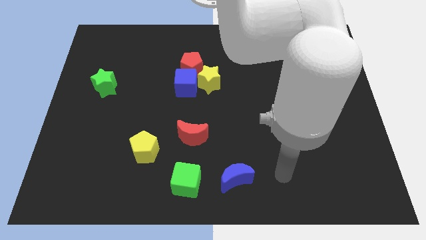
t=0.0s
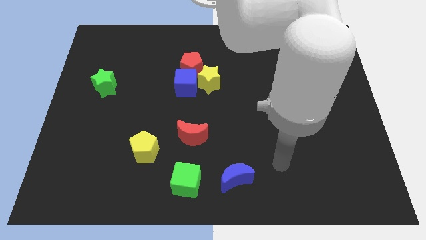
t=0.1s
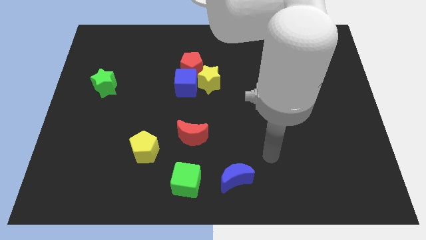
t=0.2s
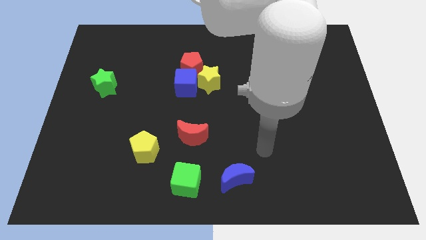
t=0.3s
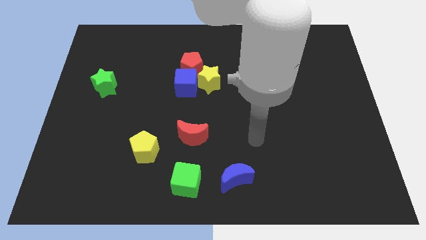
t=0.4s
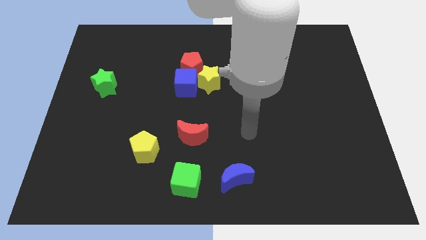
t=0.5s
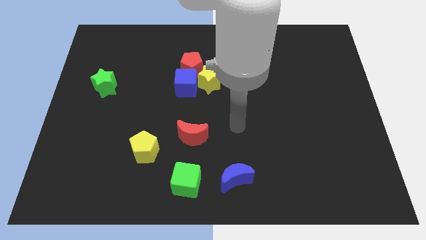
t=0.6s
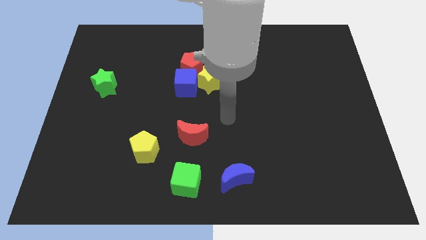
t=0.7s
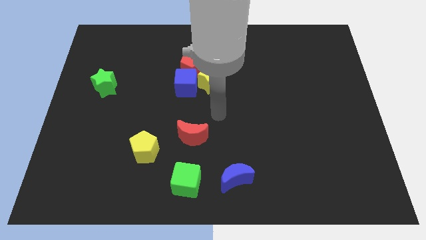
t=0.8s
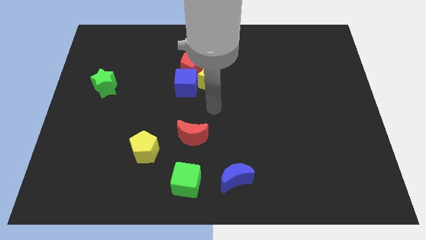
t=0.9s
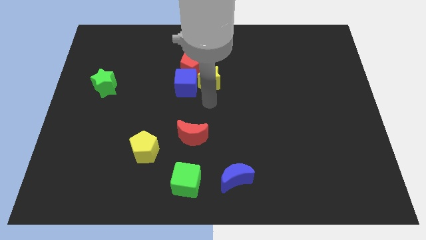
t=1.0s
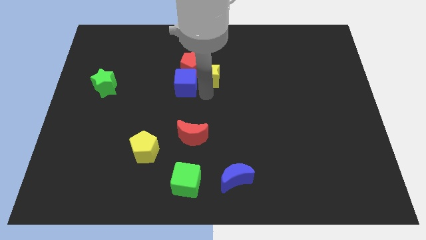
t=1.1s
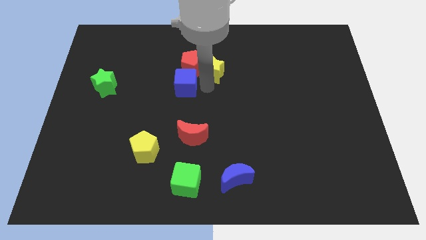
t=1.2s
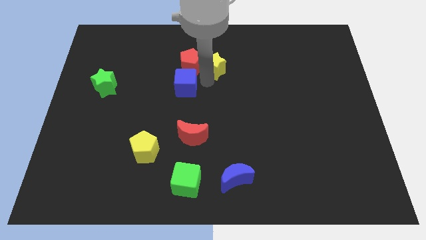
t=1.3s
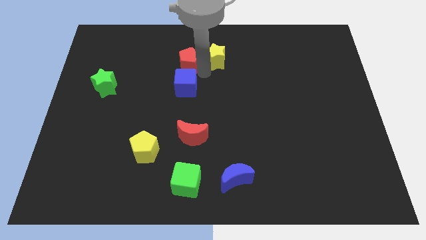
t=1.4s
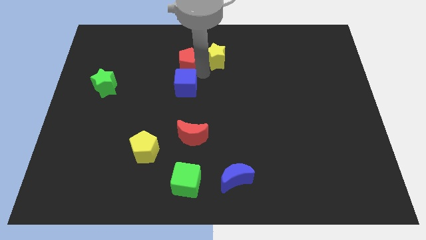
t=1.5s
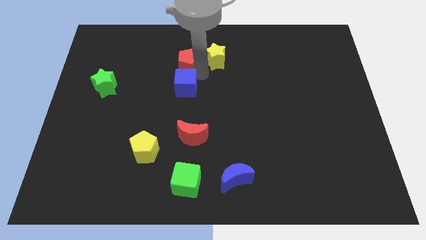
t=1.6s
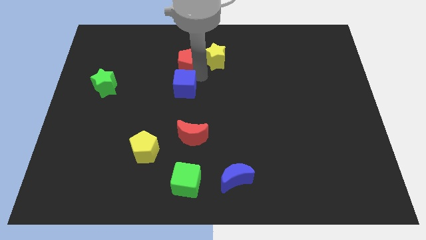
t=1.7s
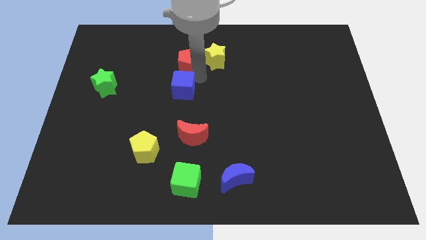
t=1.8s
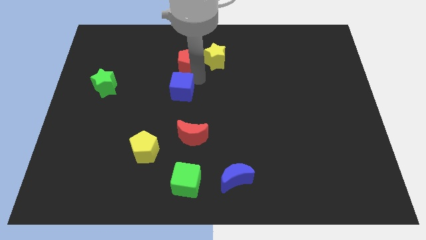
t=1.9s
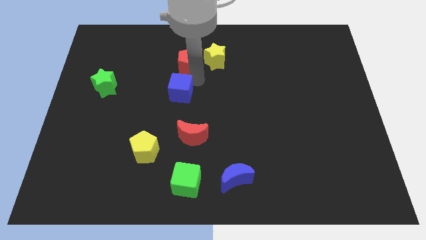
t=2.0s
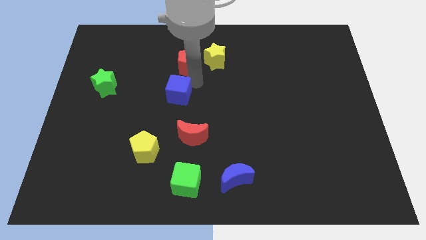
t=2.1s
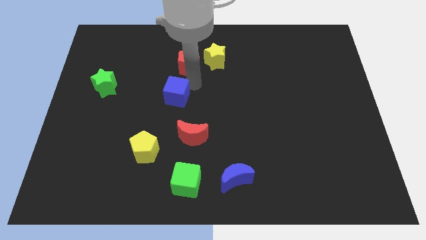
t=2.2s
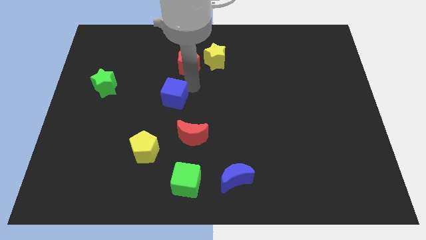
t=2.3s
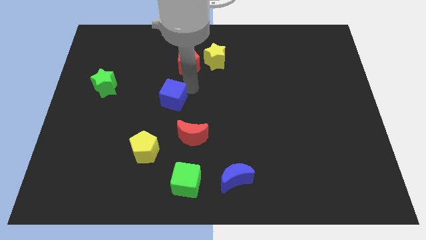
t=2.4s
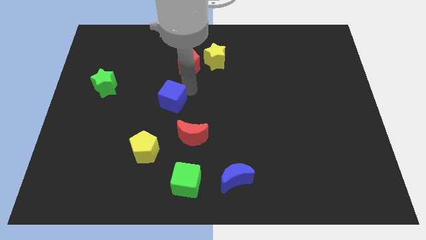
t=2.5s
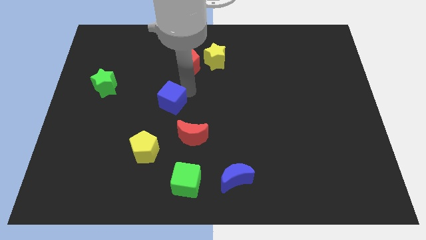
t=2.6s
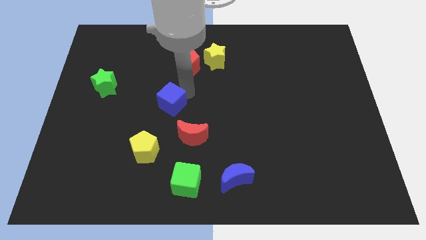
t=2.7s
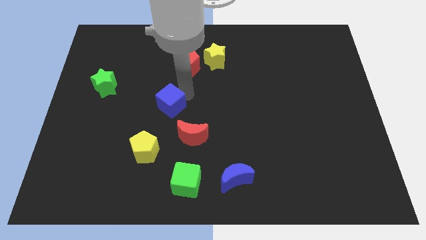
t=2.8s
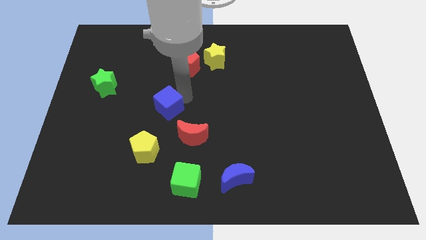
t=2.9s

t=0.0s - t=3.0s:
slightly move the blue cube downwards and then left

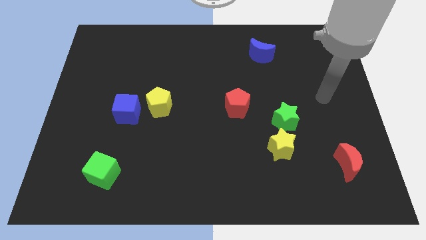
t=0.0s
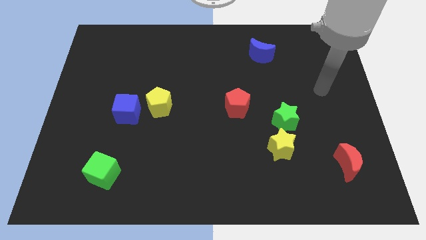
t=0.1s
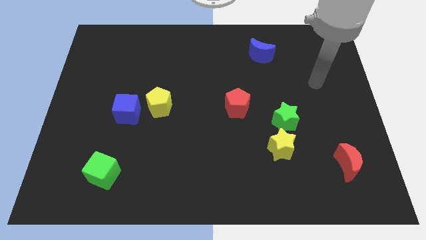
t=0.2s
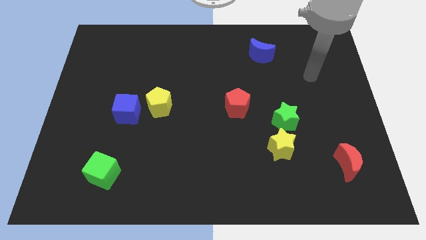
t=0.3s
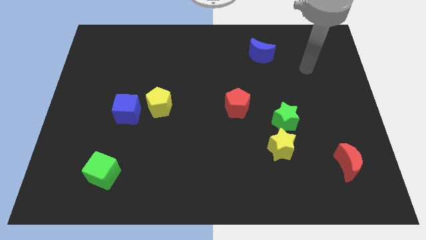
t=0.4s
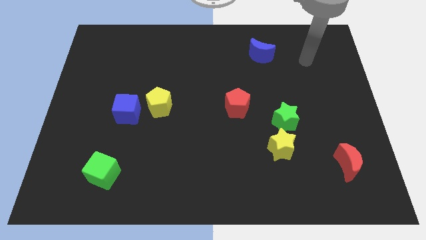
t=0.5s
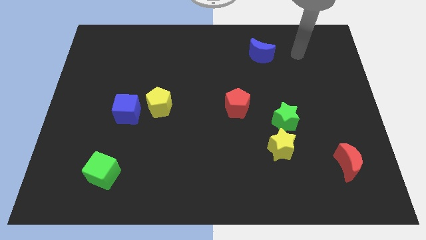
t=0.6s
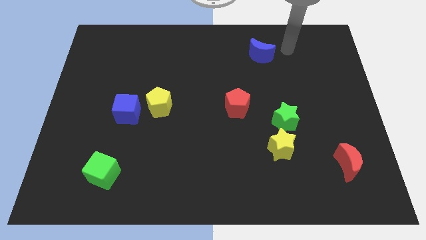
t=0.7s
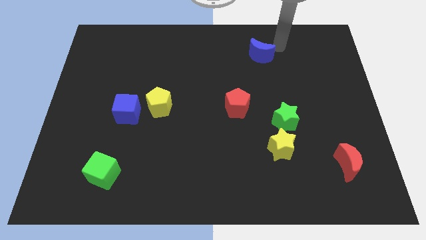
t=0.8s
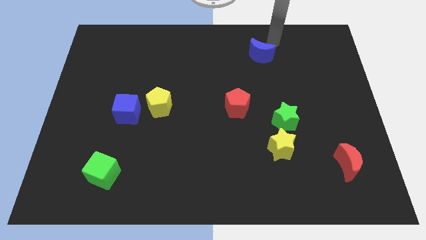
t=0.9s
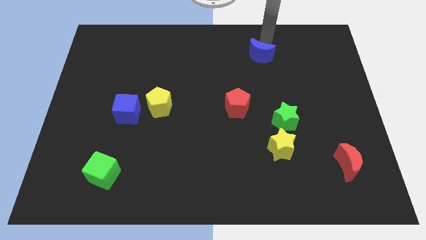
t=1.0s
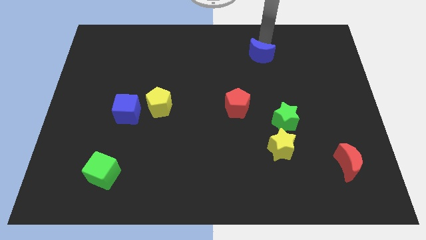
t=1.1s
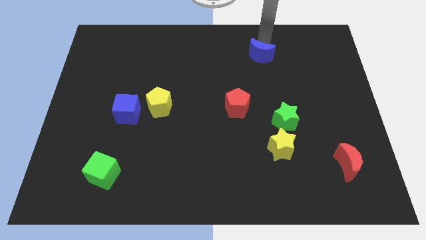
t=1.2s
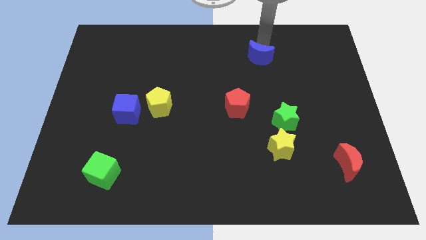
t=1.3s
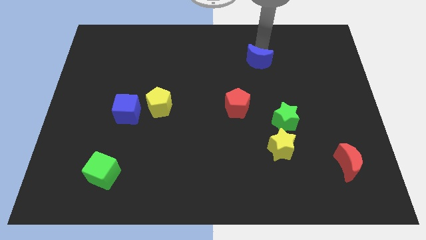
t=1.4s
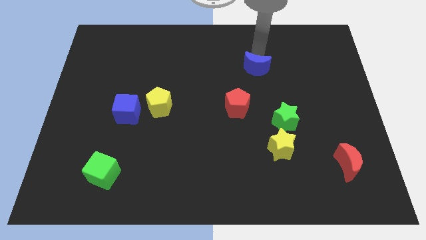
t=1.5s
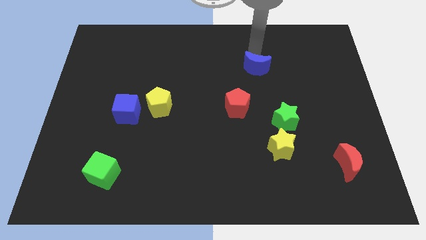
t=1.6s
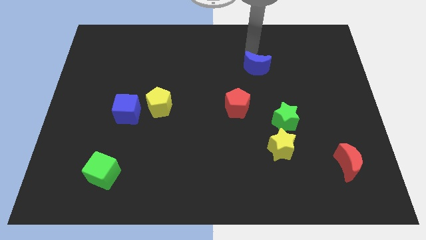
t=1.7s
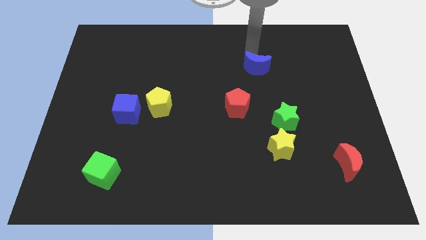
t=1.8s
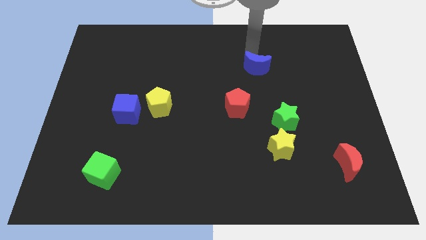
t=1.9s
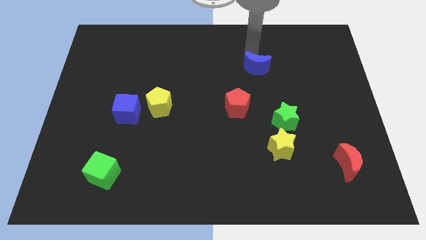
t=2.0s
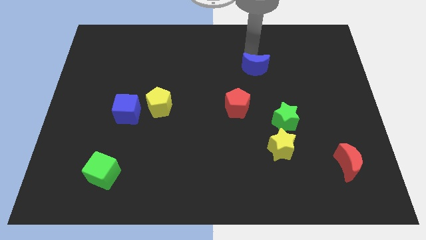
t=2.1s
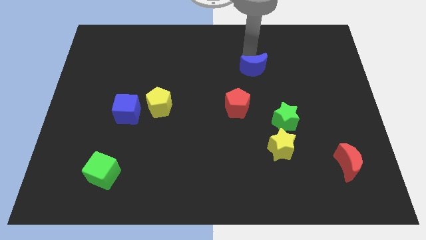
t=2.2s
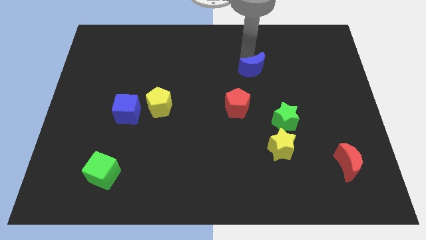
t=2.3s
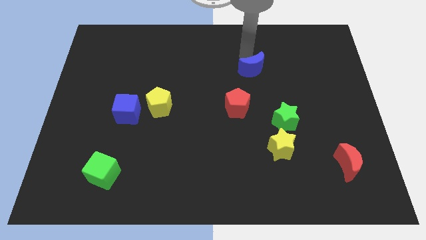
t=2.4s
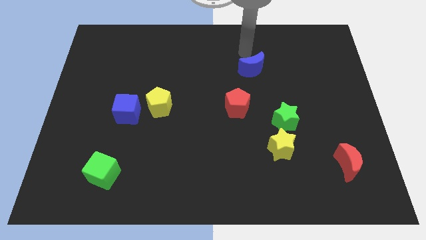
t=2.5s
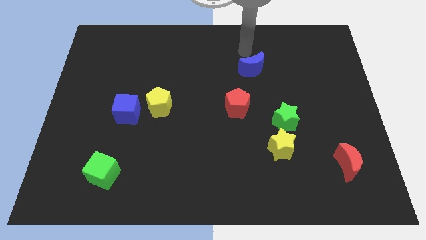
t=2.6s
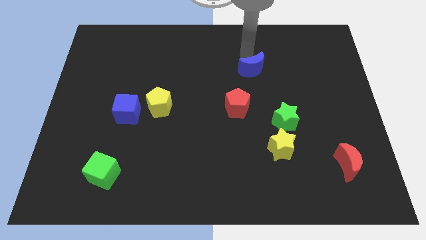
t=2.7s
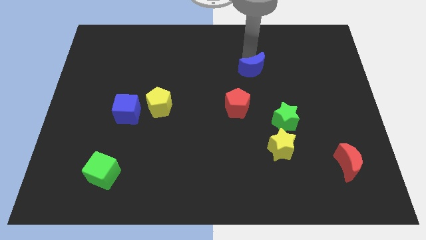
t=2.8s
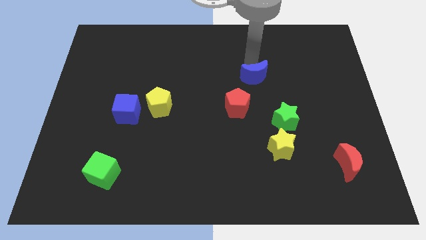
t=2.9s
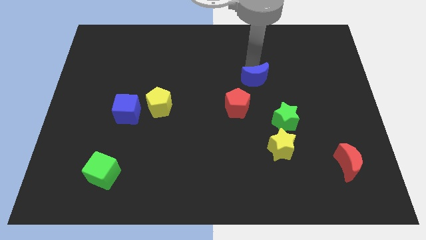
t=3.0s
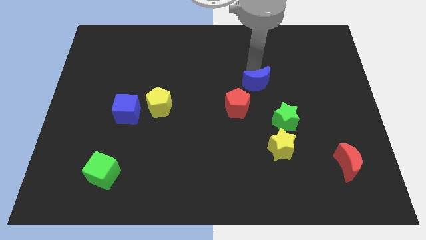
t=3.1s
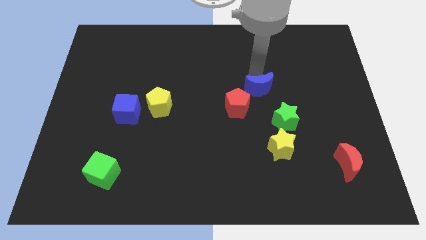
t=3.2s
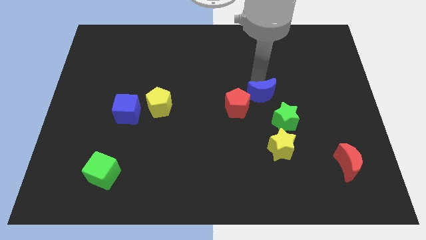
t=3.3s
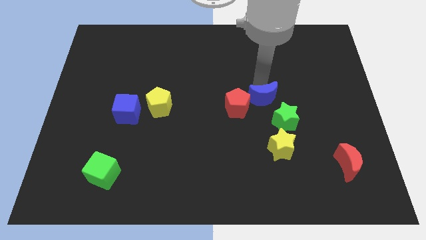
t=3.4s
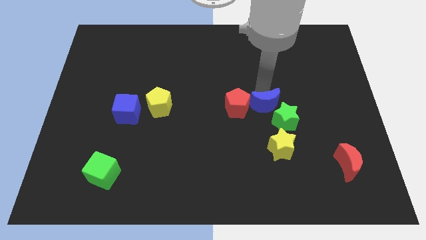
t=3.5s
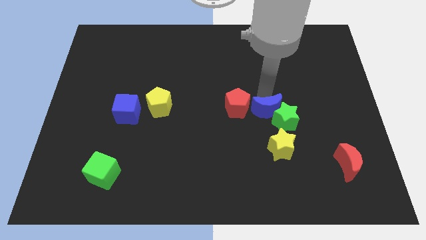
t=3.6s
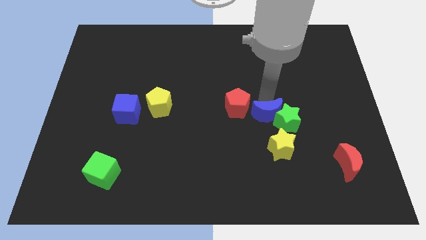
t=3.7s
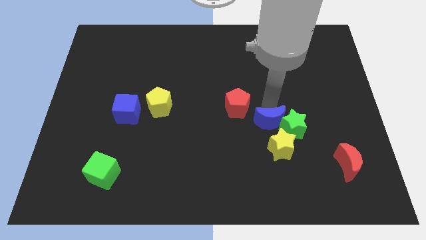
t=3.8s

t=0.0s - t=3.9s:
move the blue moon down

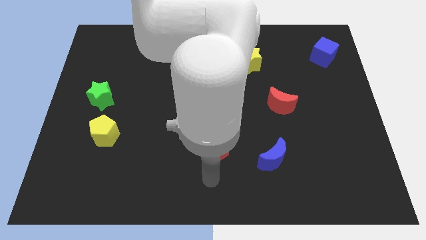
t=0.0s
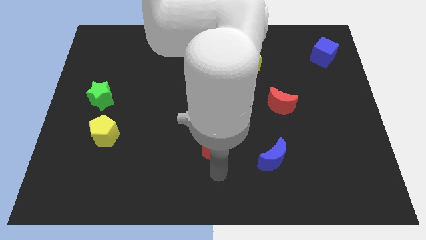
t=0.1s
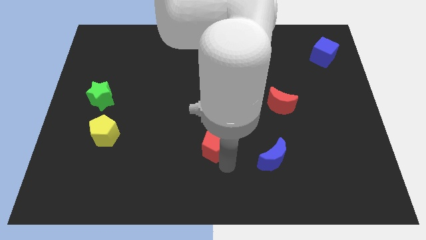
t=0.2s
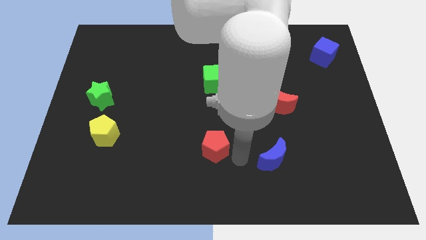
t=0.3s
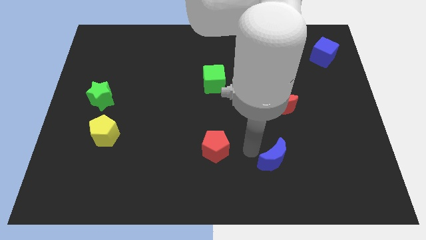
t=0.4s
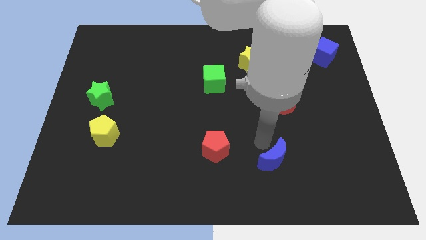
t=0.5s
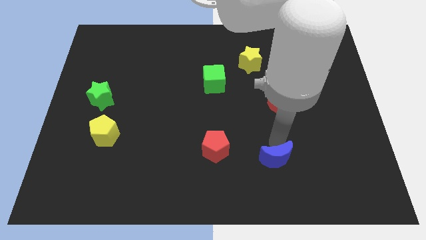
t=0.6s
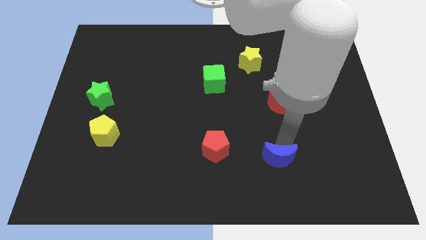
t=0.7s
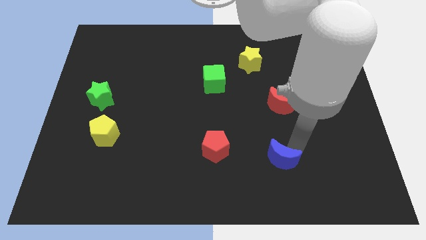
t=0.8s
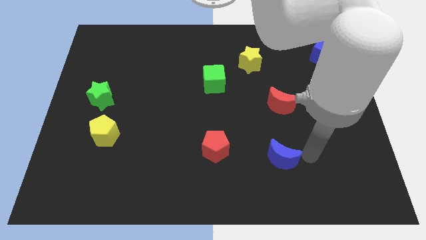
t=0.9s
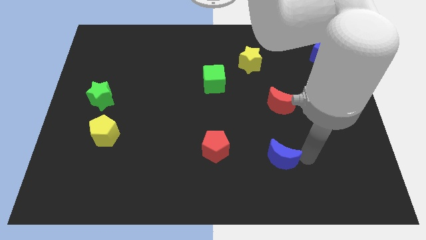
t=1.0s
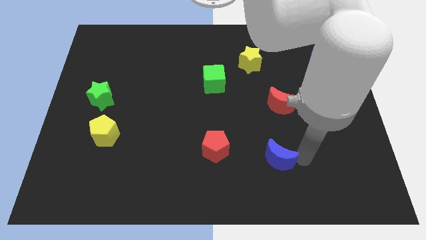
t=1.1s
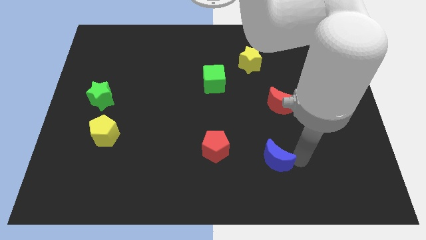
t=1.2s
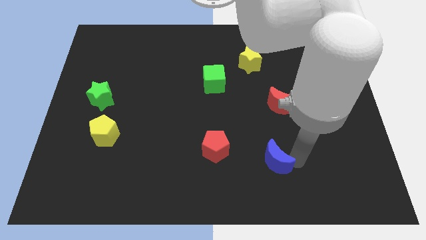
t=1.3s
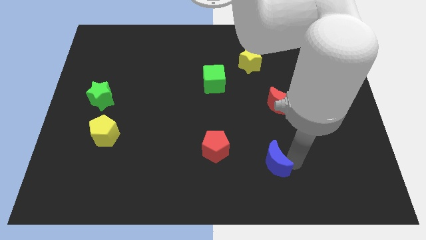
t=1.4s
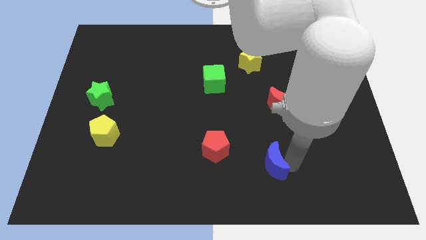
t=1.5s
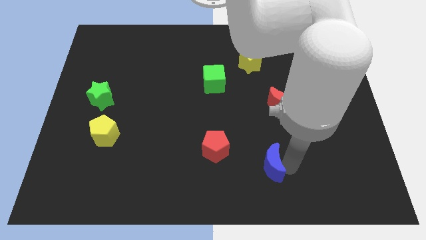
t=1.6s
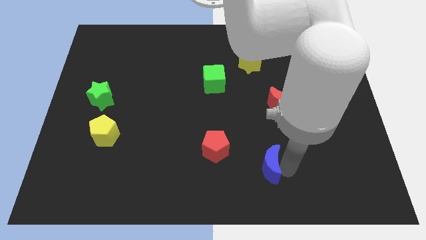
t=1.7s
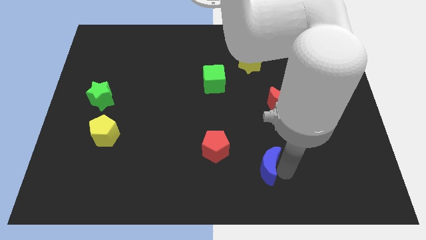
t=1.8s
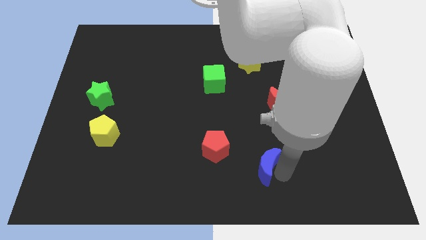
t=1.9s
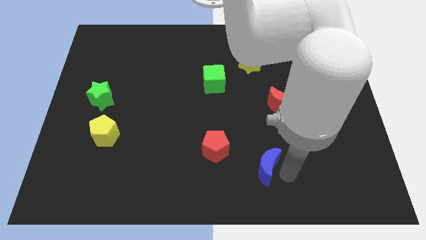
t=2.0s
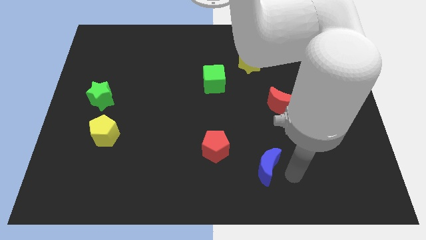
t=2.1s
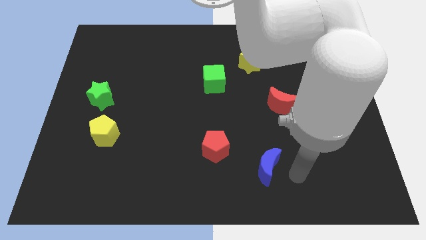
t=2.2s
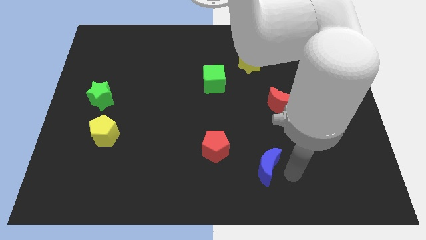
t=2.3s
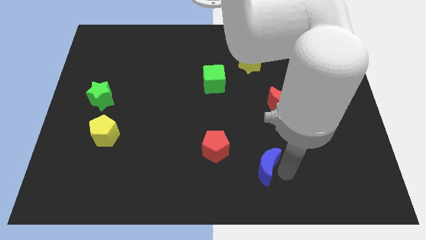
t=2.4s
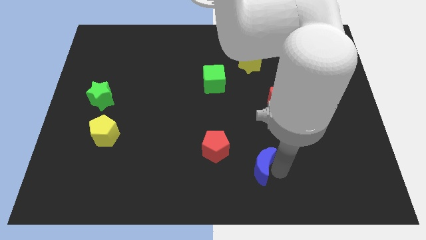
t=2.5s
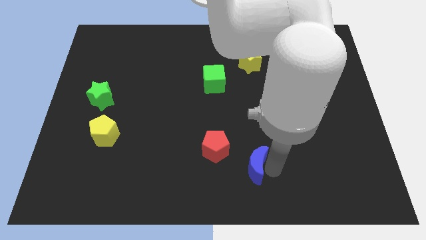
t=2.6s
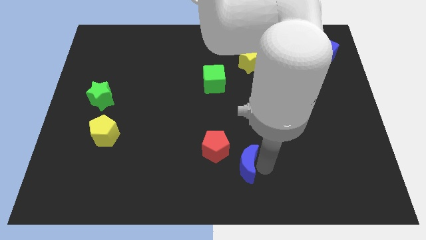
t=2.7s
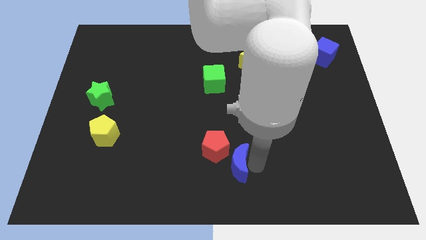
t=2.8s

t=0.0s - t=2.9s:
slightly move the blue moon to the left
